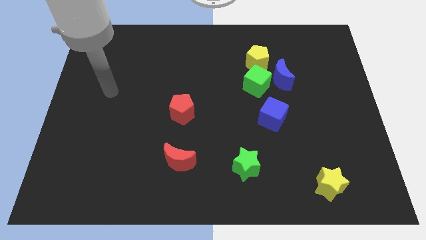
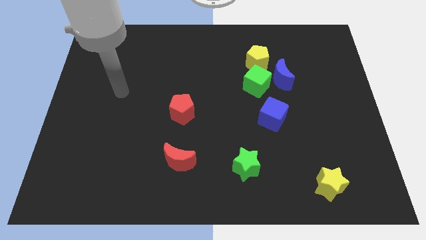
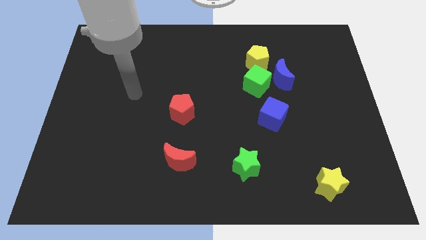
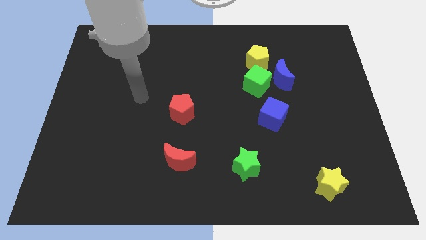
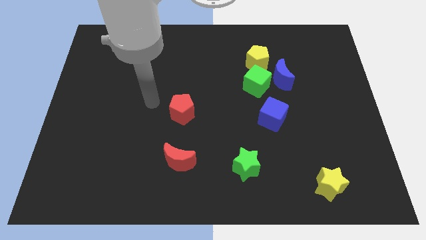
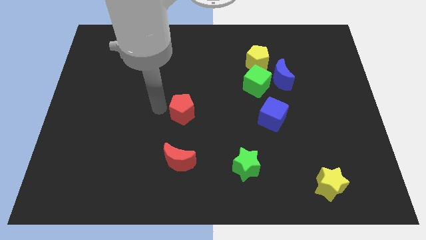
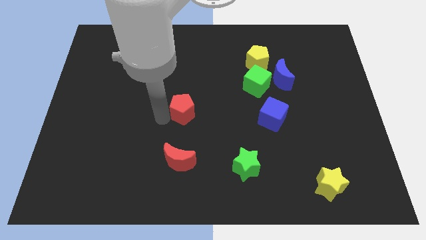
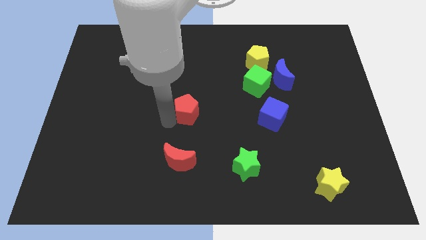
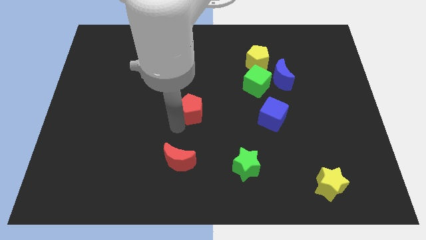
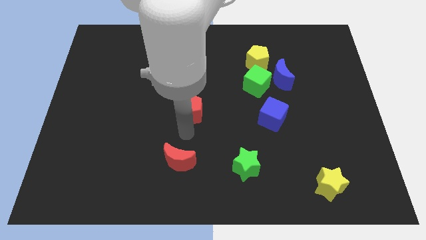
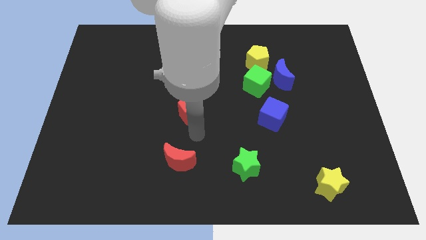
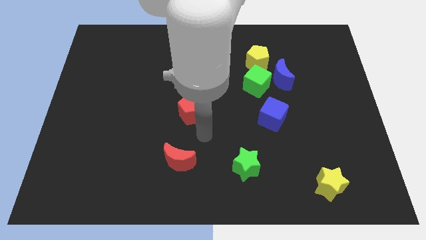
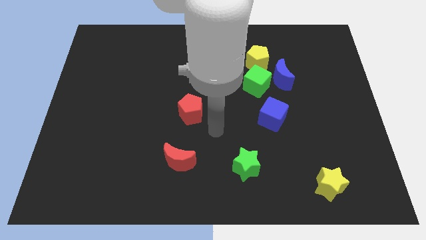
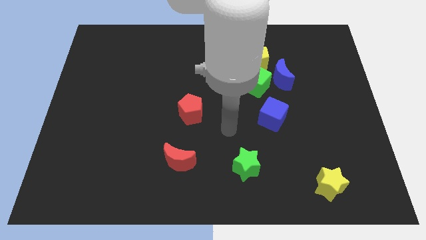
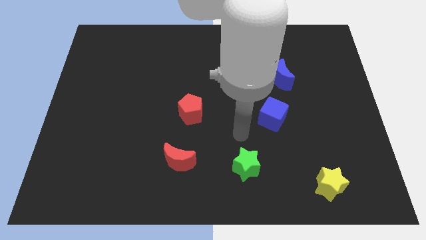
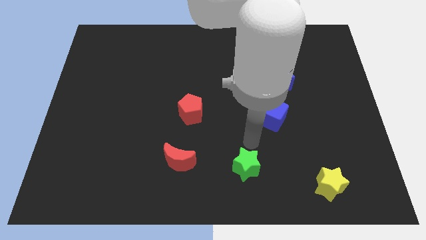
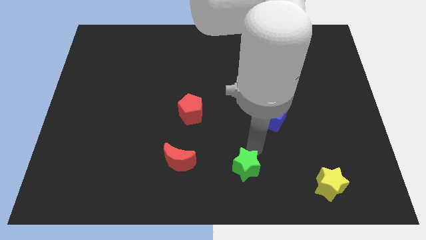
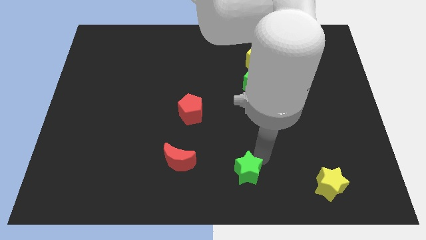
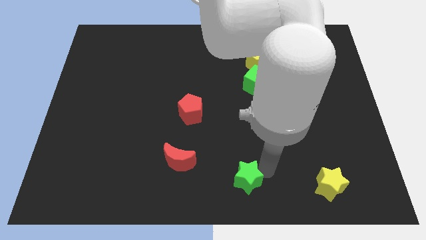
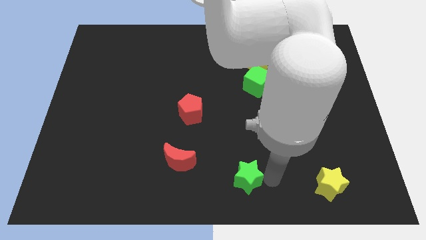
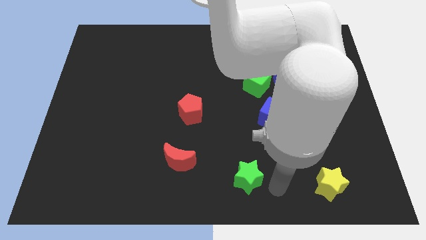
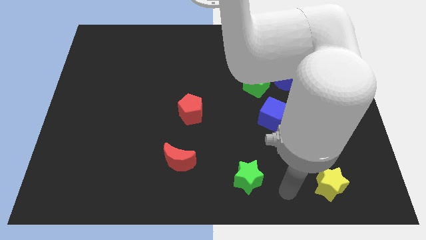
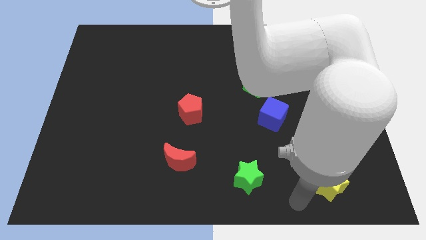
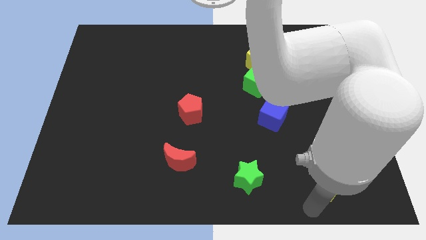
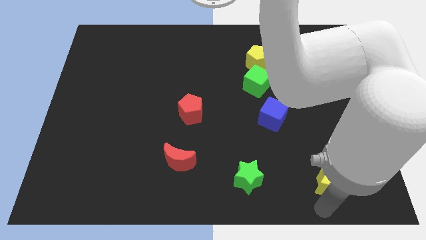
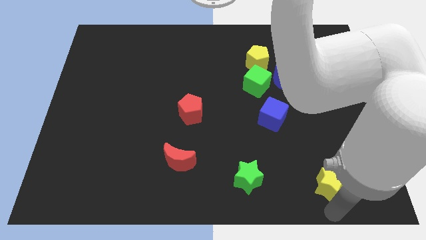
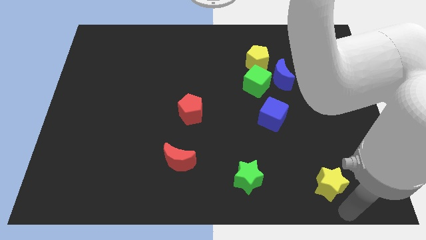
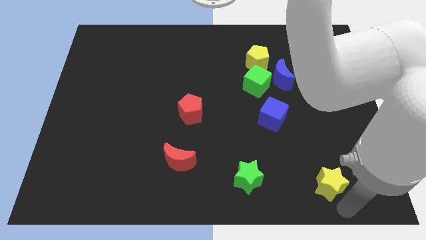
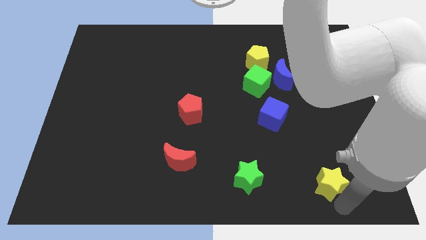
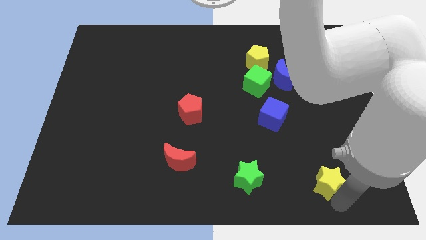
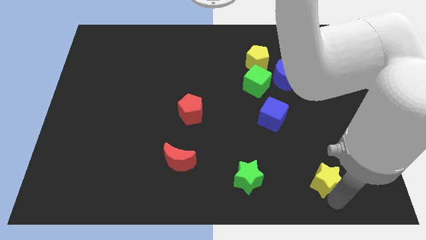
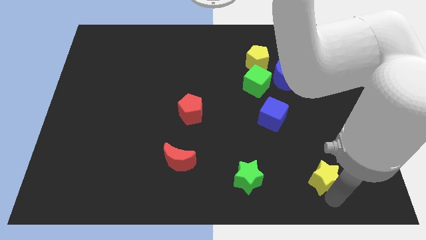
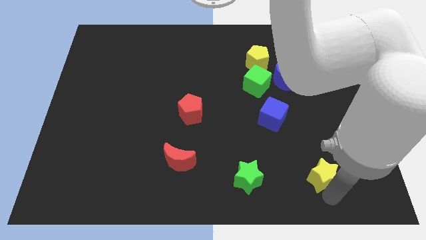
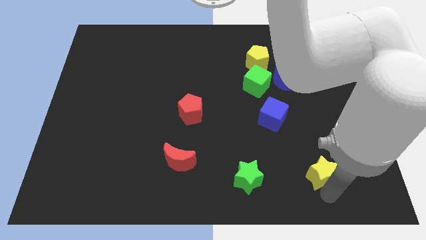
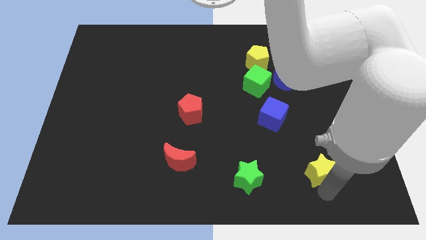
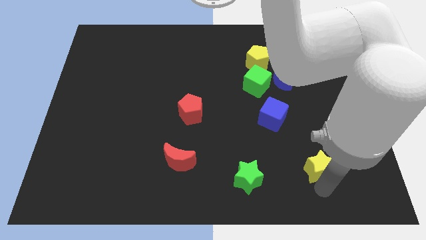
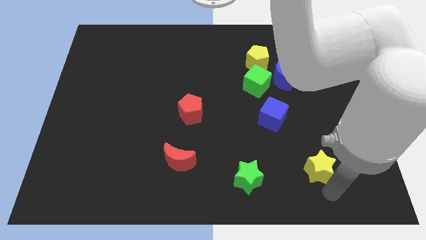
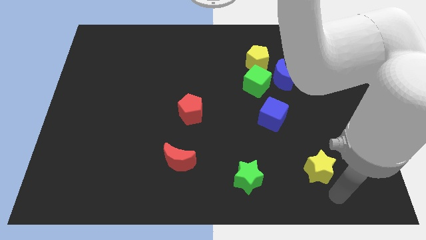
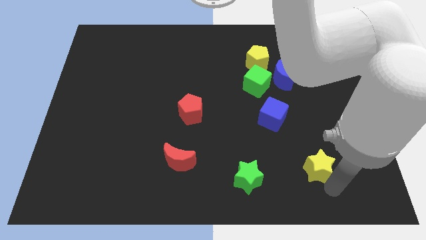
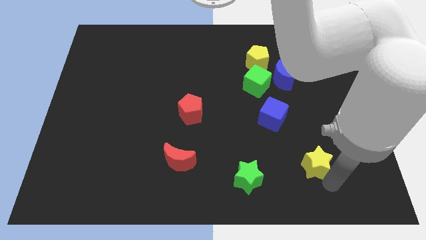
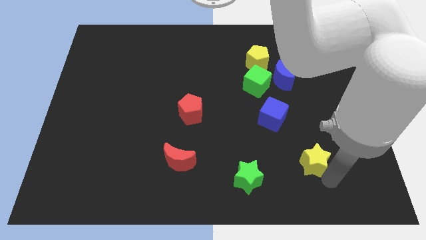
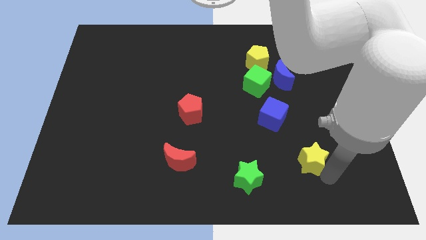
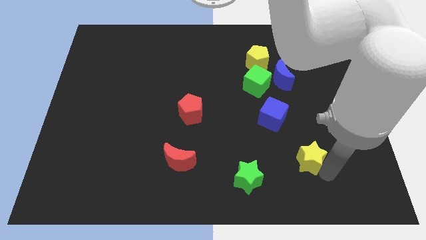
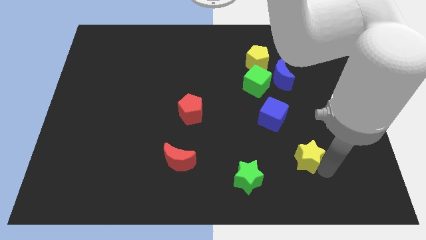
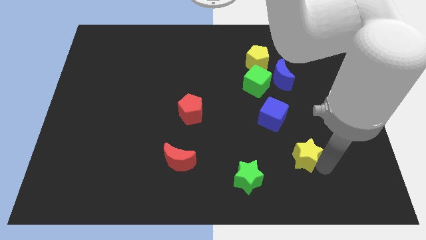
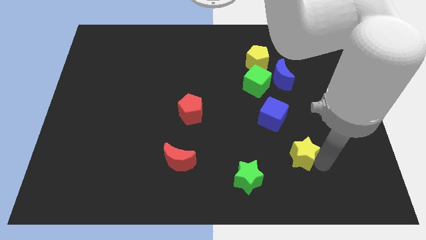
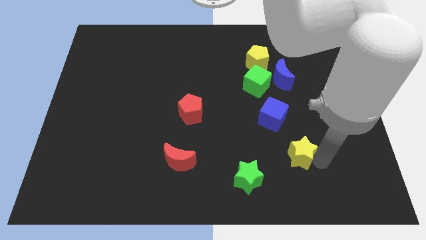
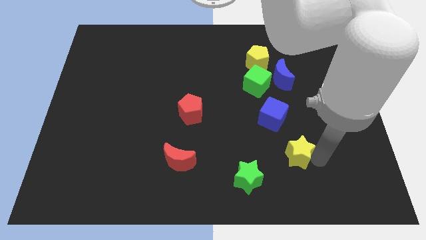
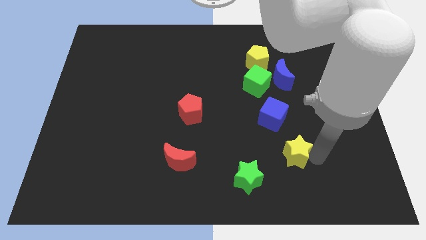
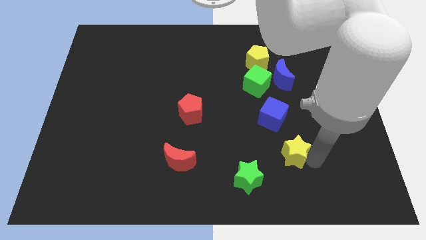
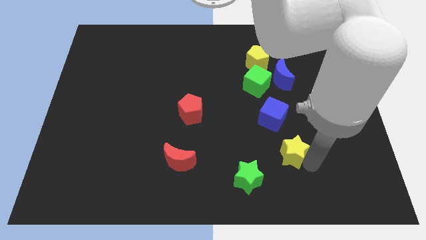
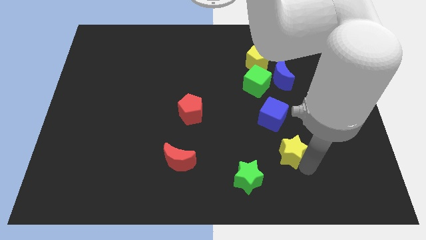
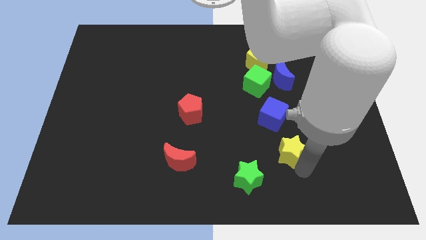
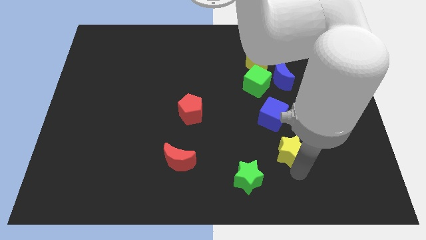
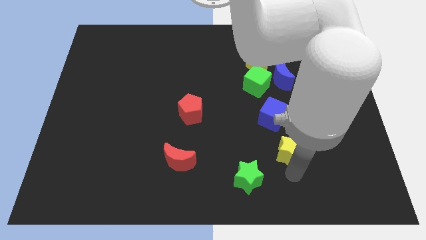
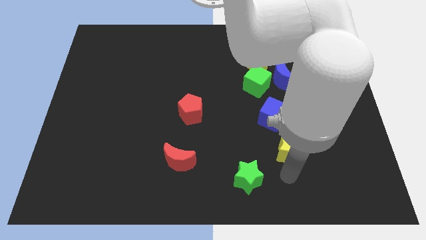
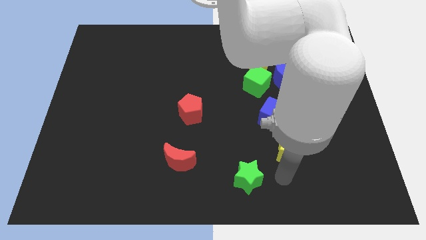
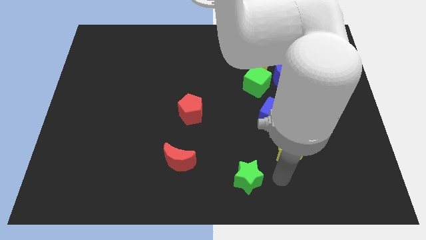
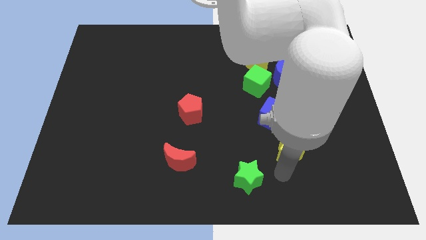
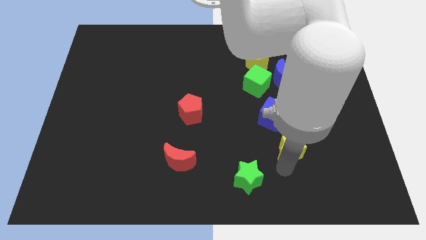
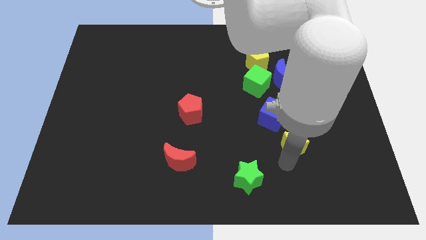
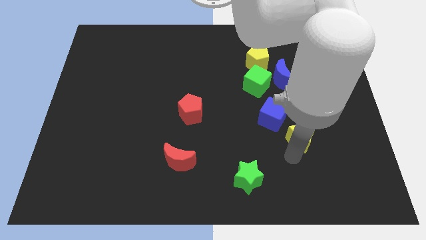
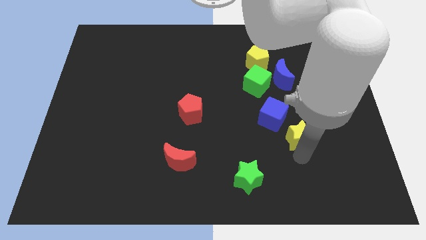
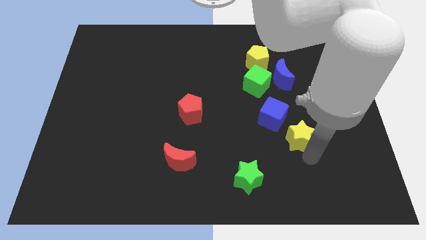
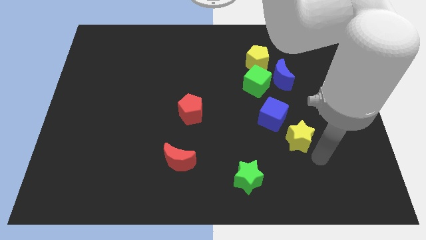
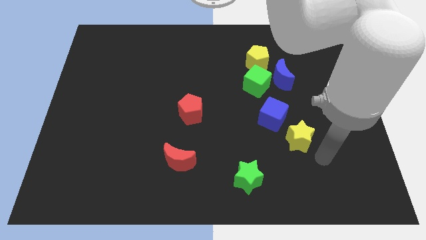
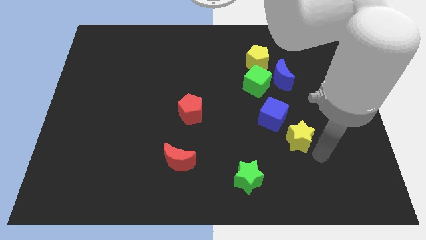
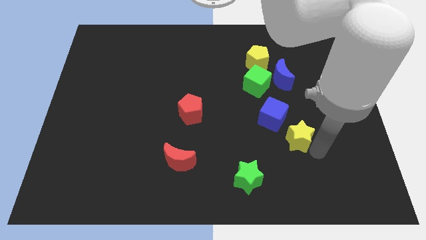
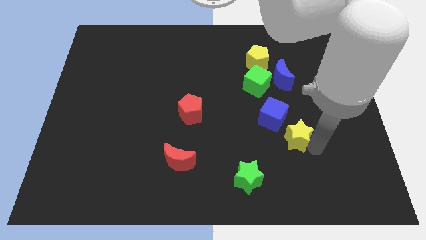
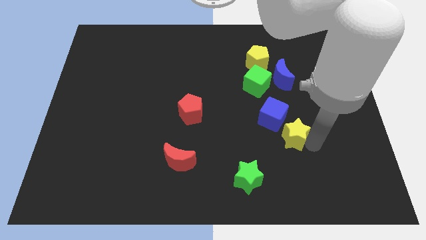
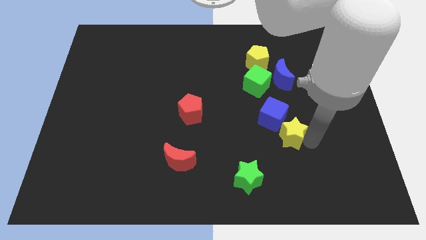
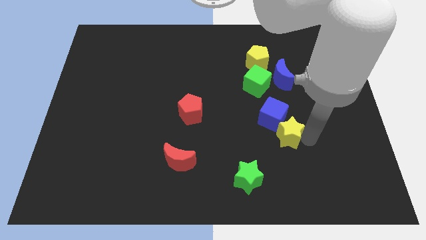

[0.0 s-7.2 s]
push the yellow star to the blue cube

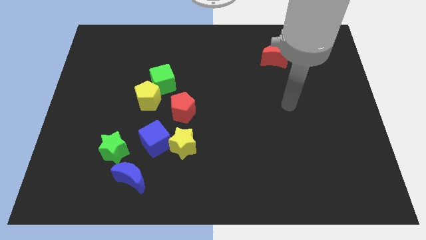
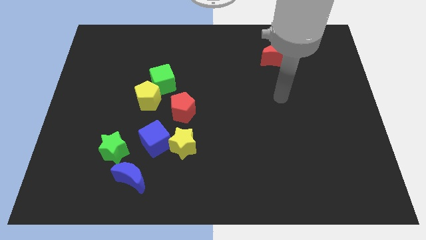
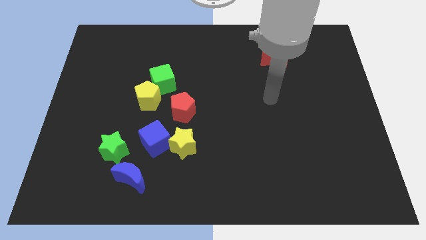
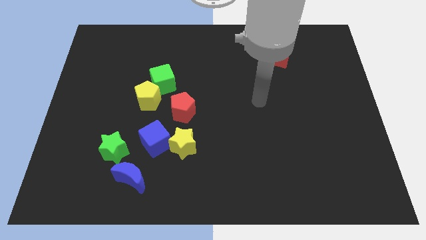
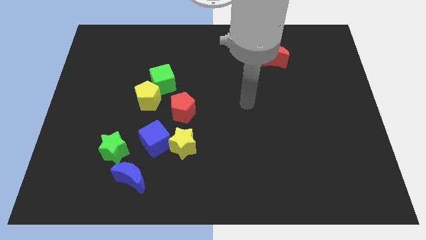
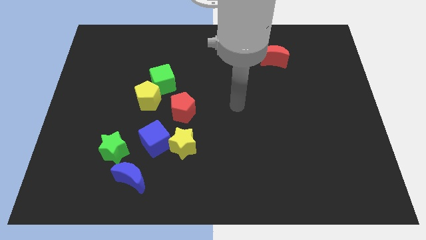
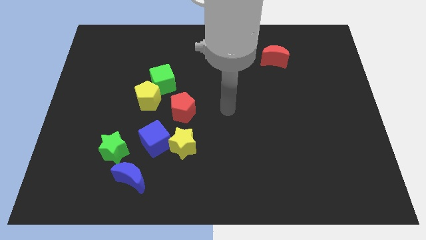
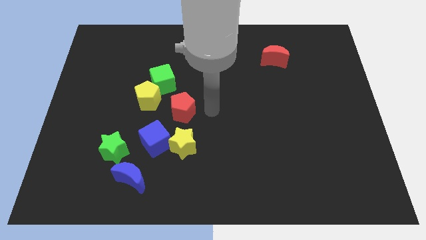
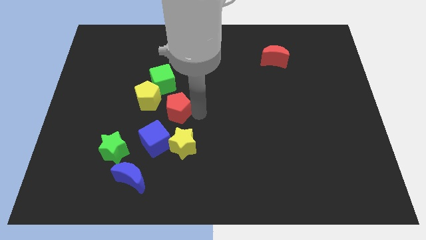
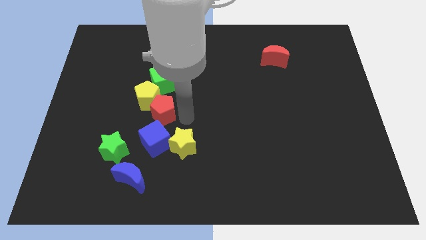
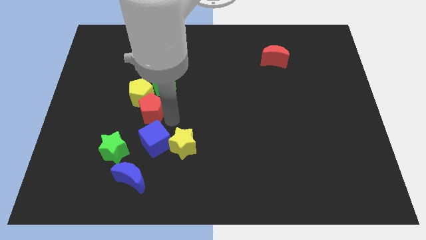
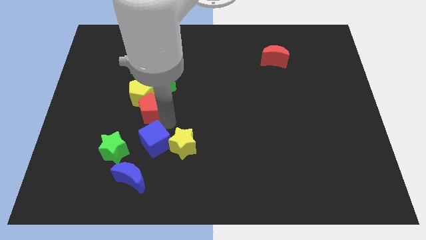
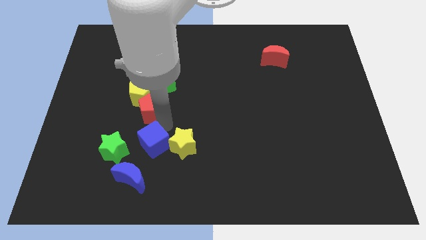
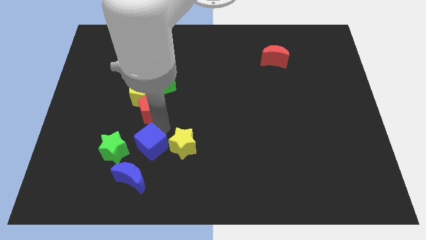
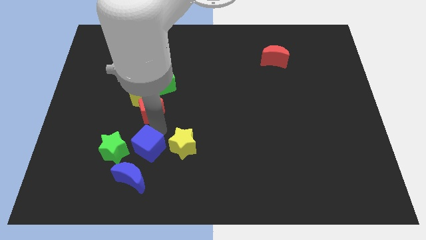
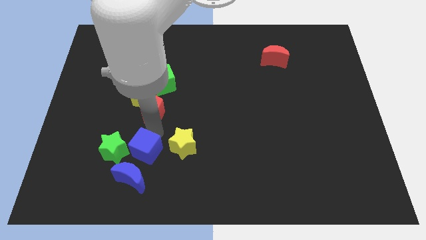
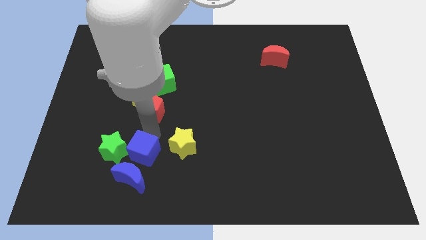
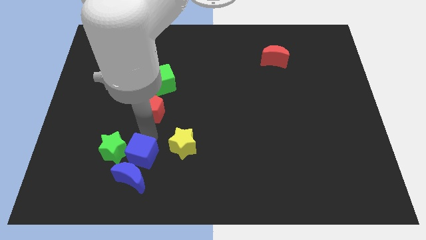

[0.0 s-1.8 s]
slide the blue cube close to the blue moon
